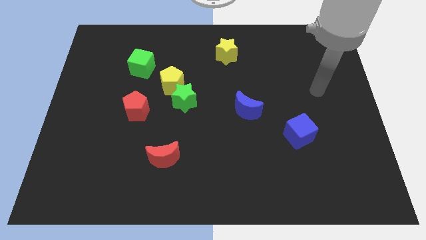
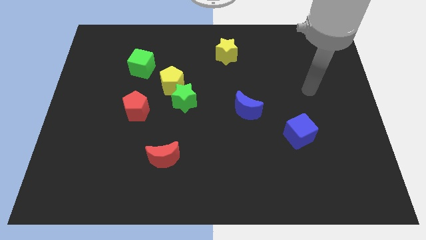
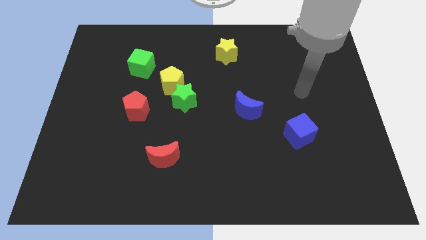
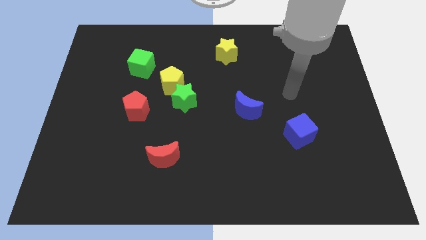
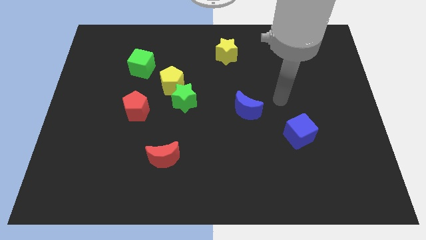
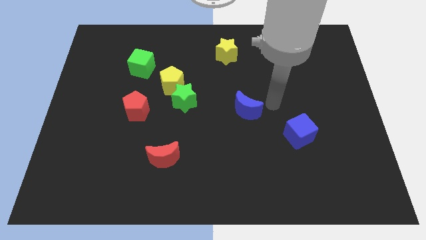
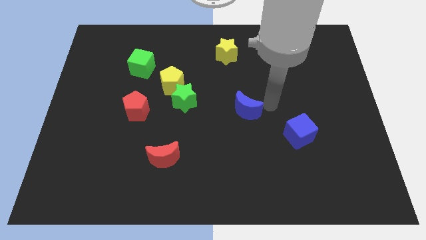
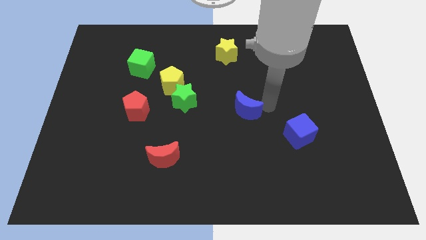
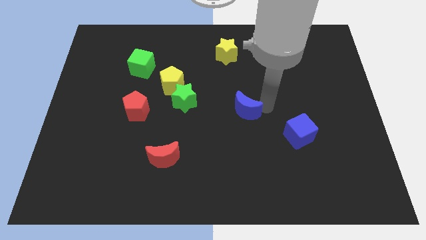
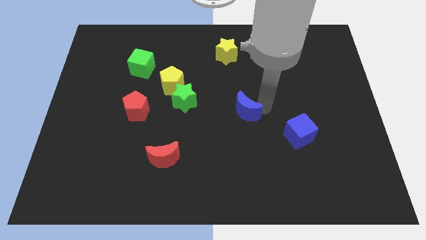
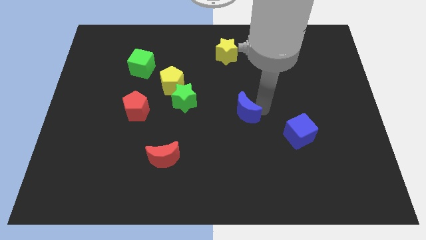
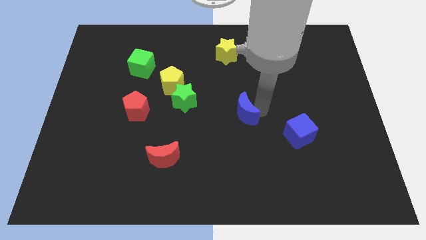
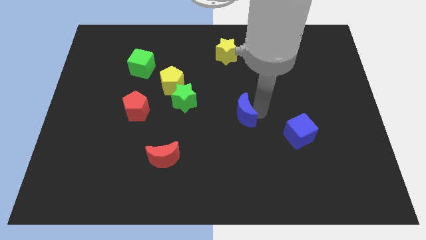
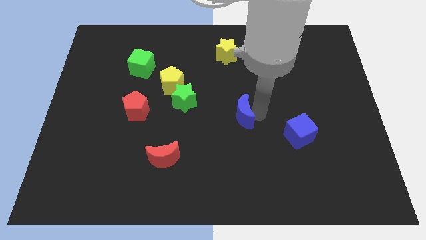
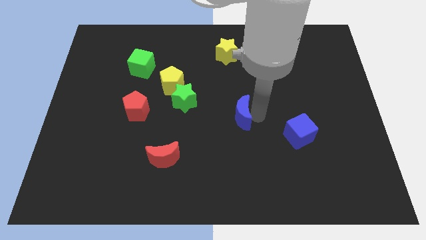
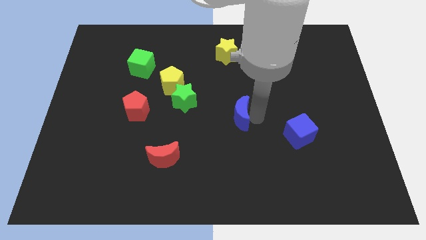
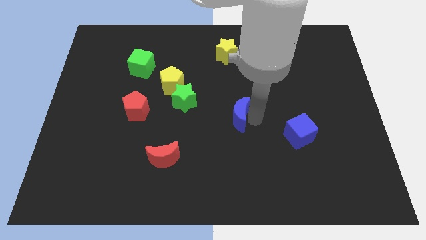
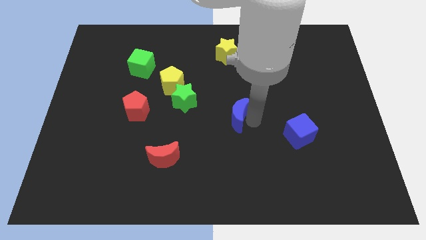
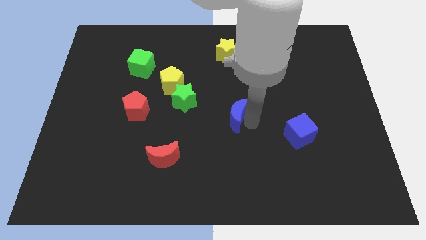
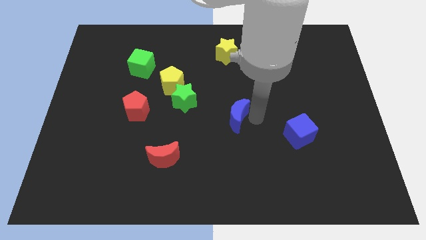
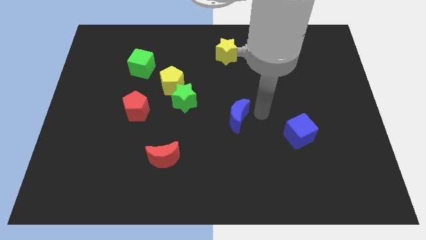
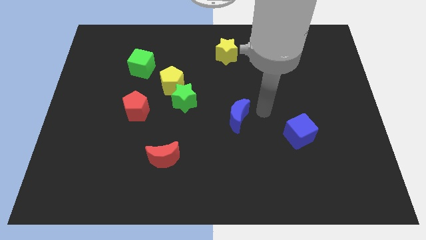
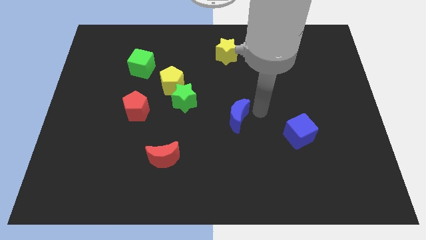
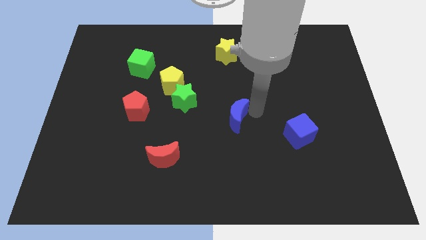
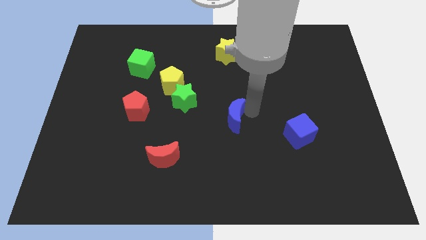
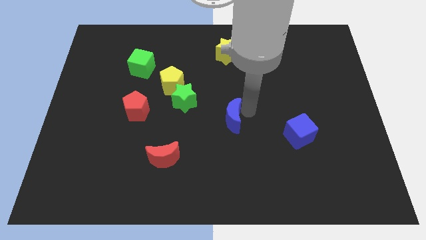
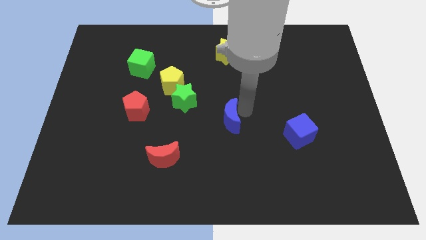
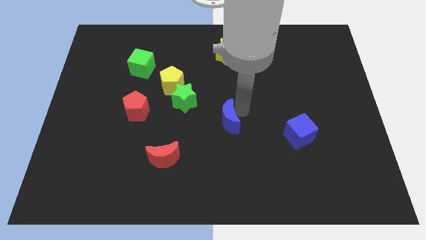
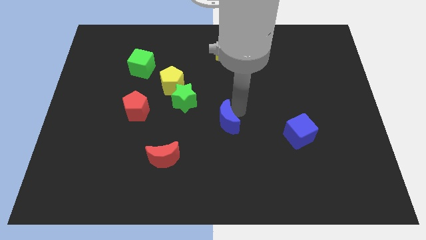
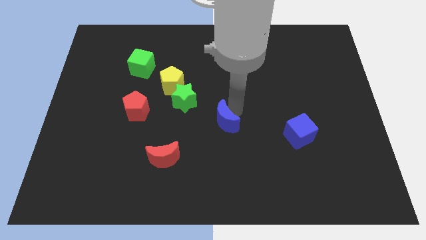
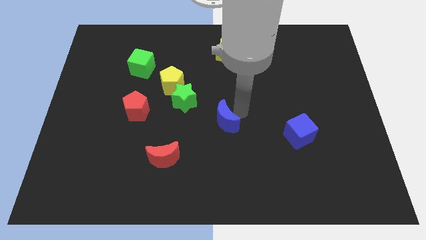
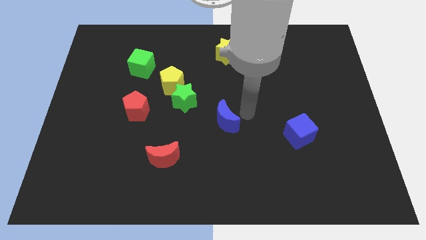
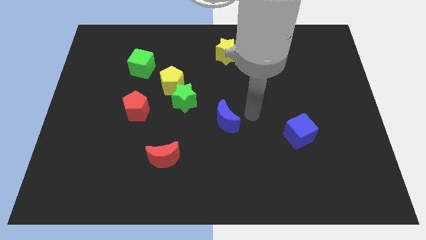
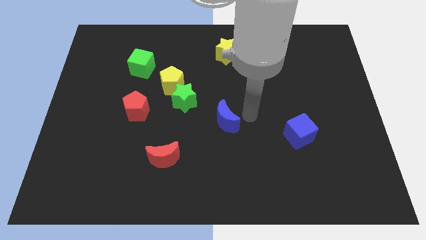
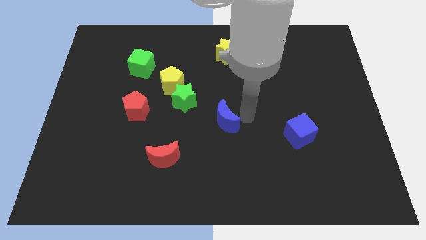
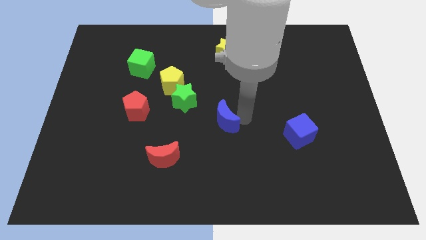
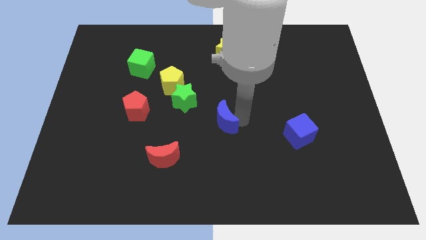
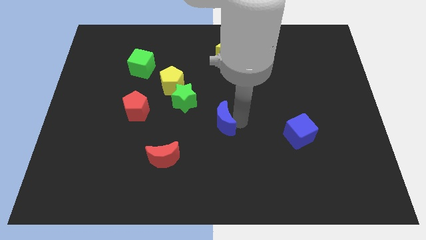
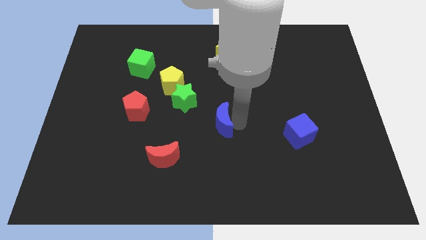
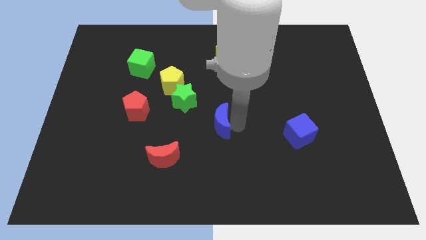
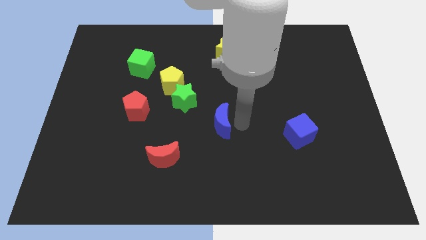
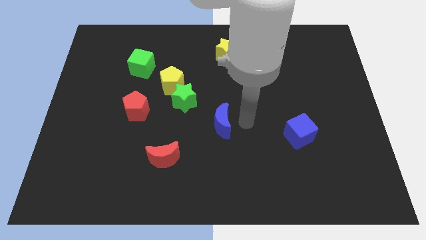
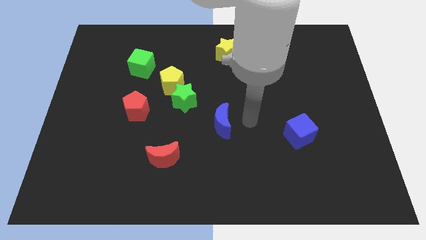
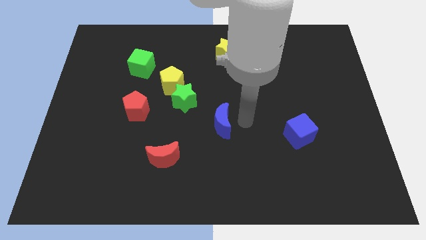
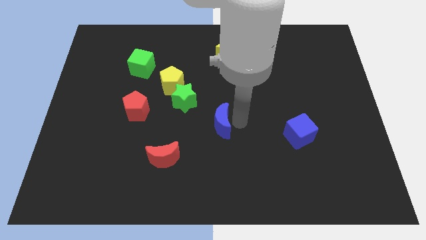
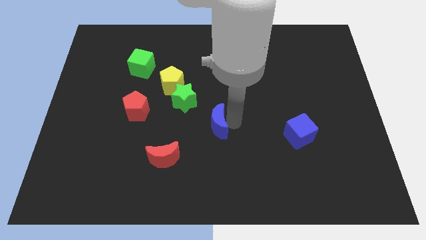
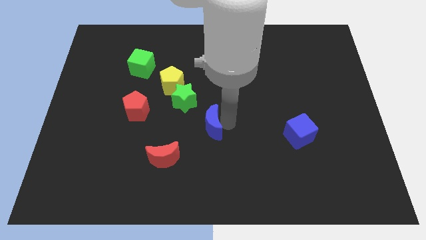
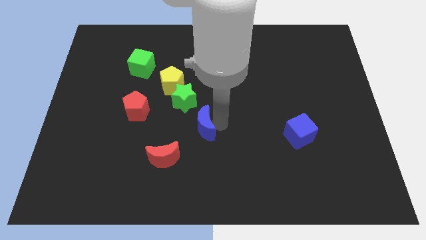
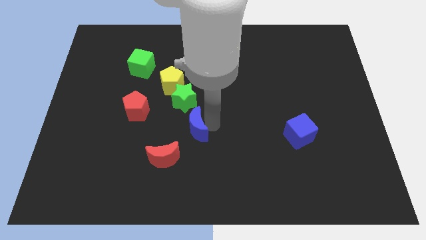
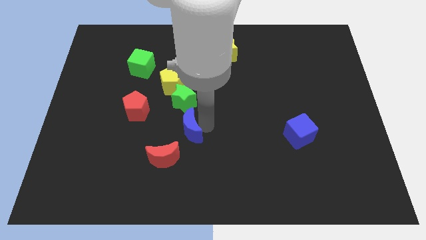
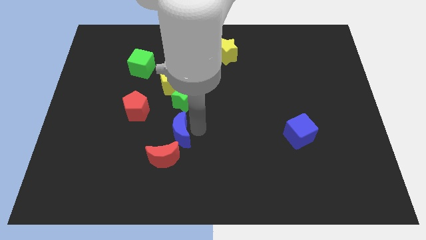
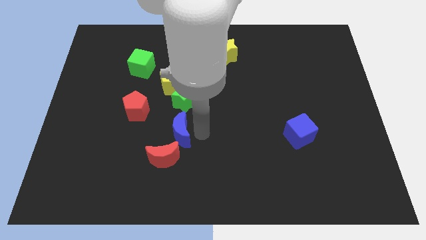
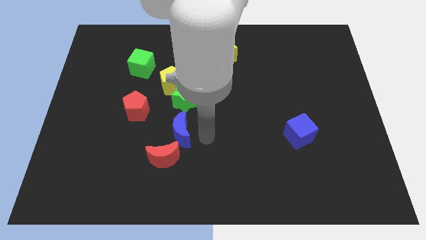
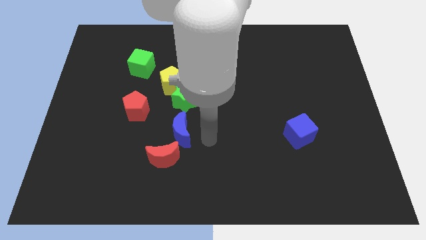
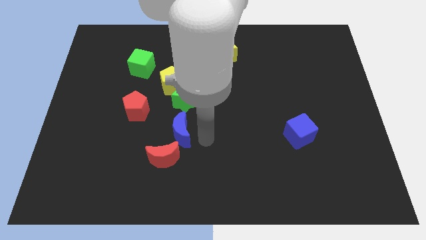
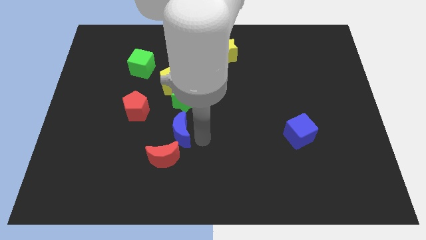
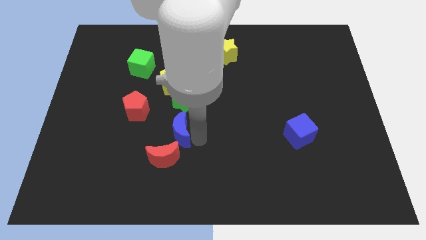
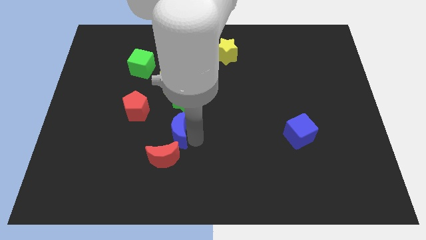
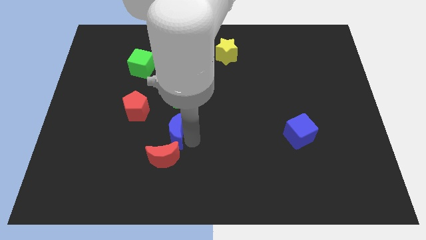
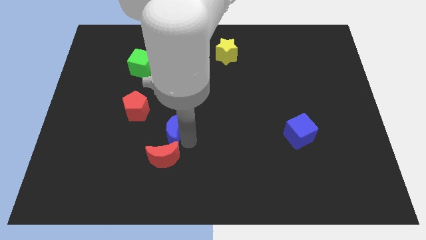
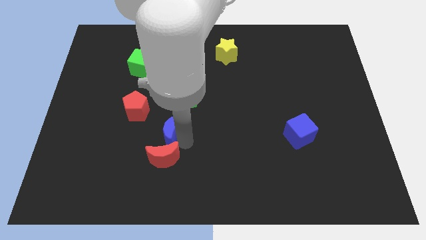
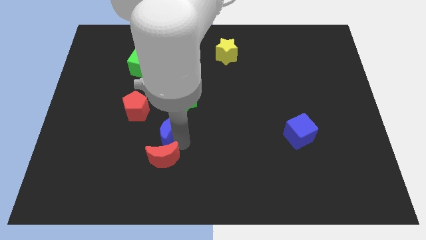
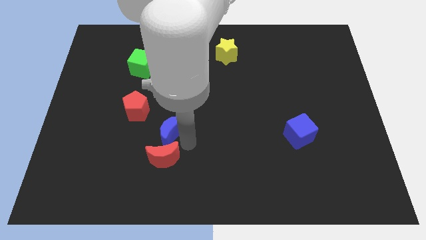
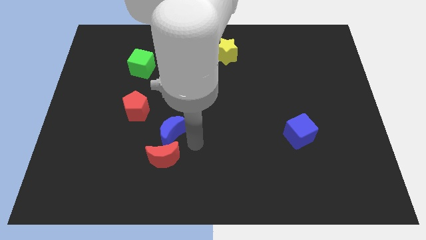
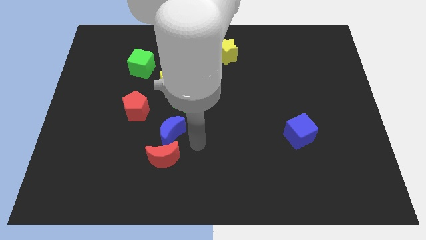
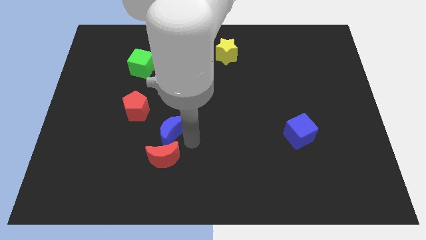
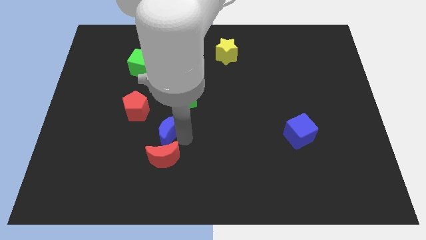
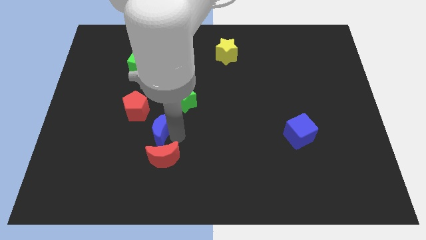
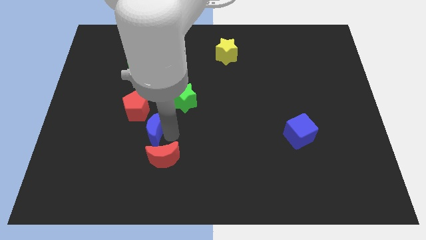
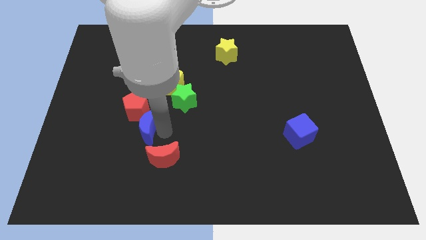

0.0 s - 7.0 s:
push the blue moon to the left

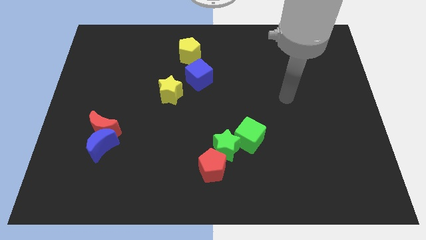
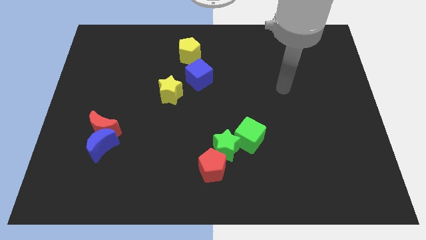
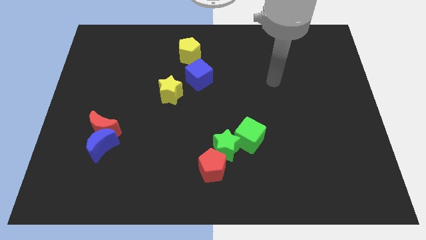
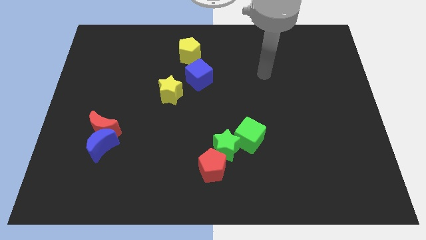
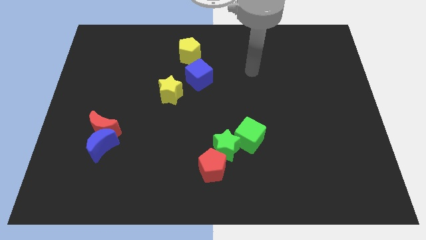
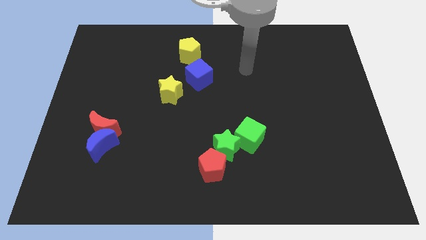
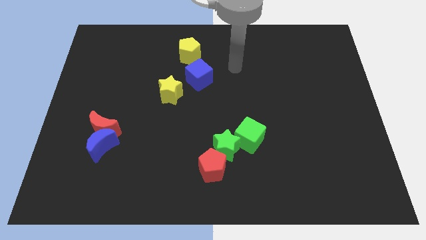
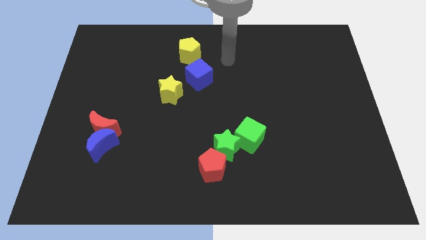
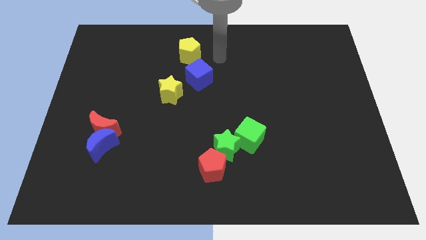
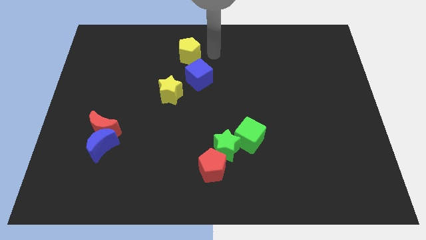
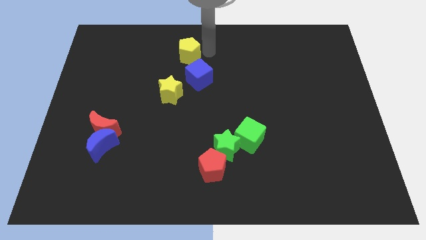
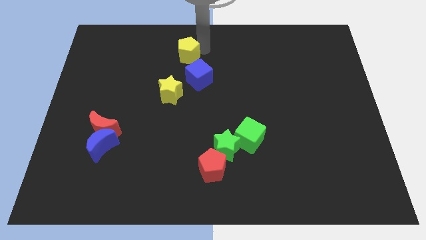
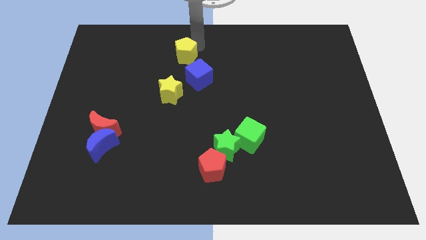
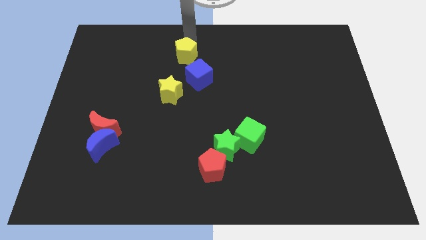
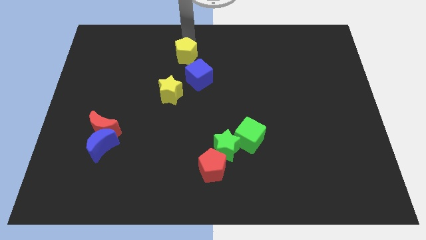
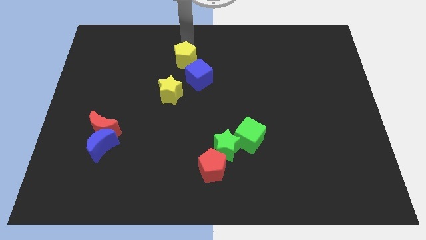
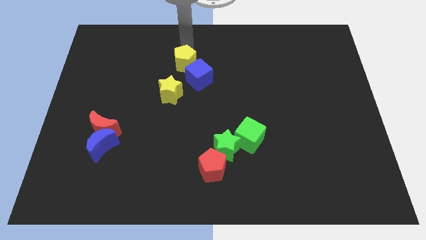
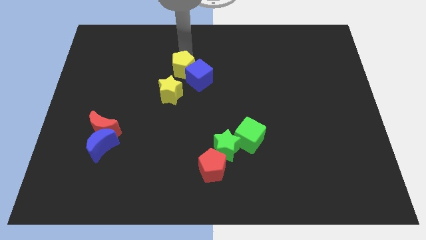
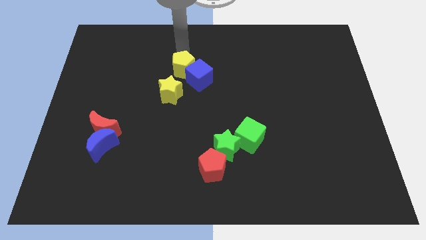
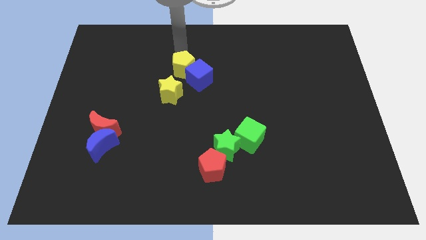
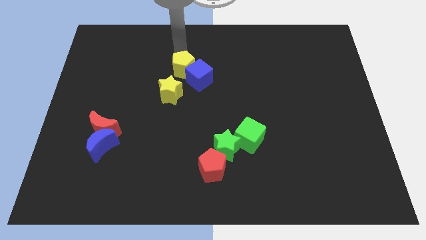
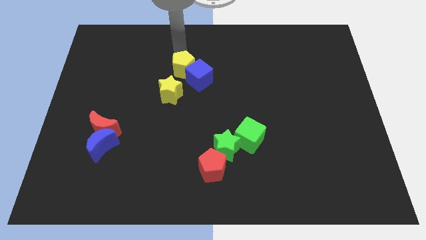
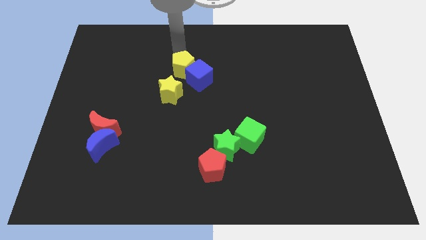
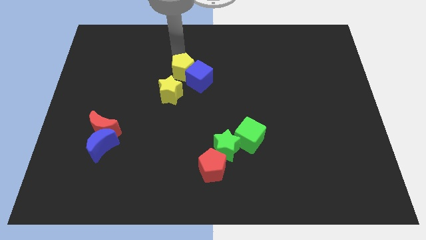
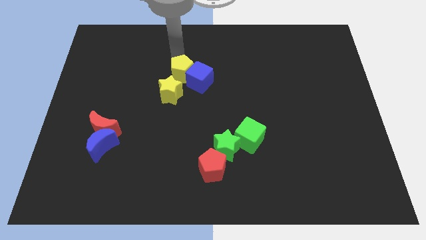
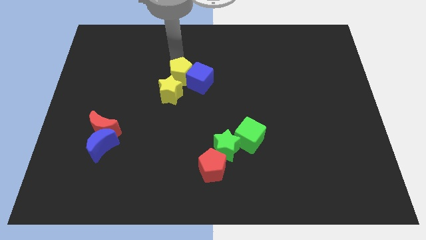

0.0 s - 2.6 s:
push the yellow pentagon somewhat down
